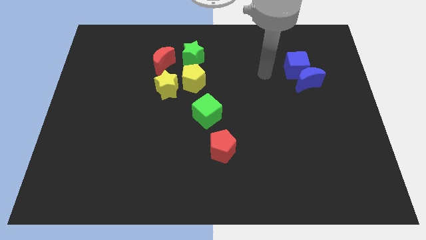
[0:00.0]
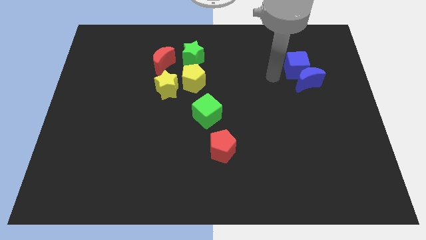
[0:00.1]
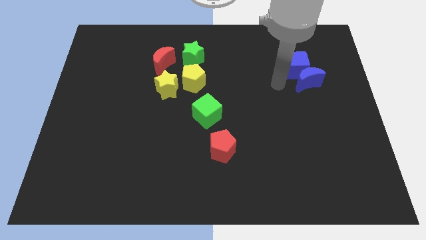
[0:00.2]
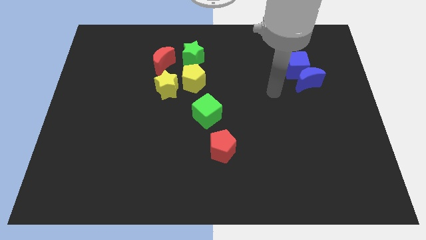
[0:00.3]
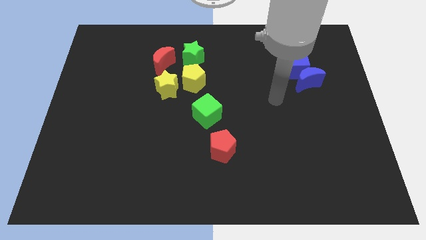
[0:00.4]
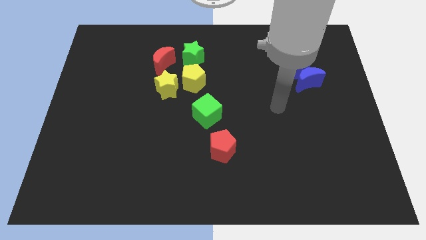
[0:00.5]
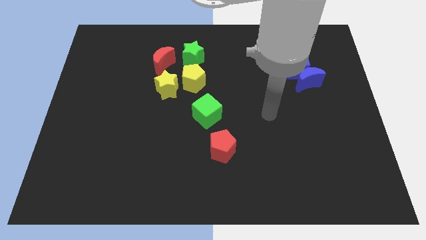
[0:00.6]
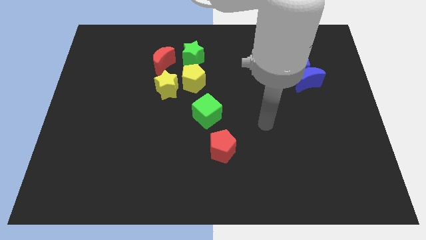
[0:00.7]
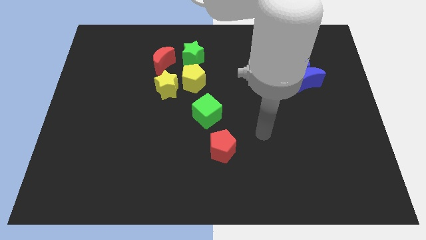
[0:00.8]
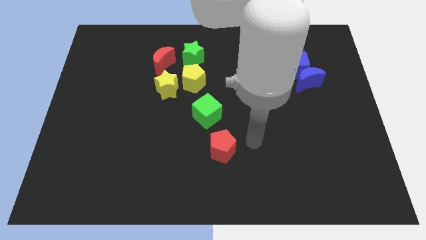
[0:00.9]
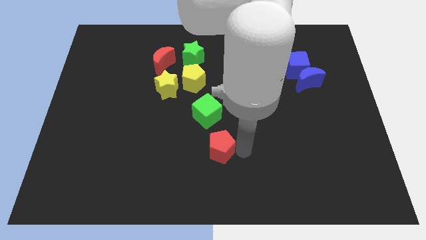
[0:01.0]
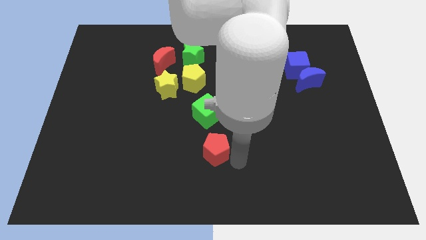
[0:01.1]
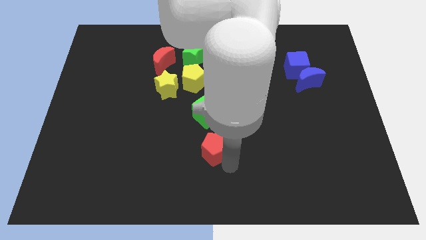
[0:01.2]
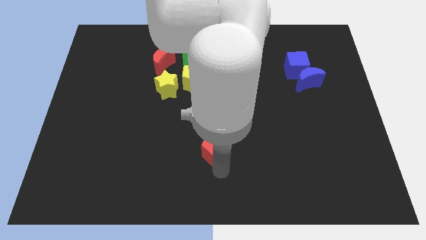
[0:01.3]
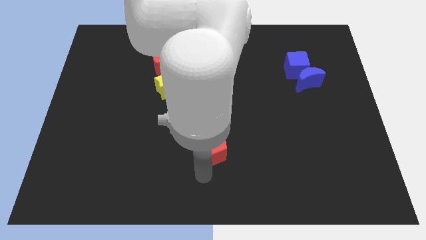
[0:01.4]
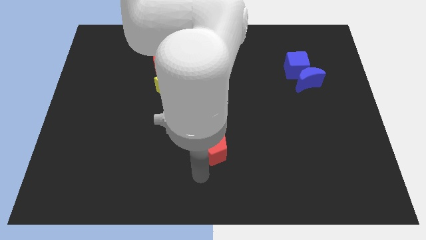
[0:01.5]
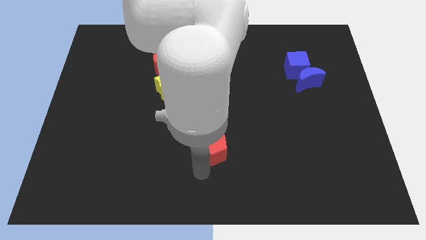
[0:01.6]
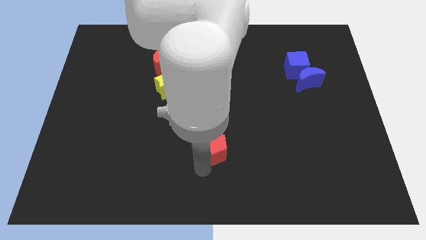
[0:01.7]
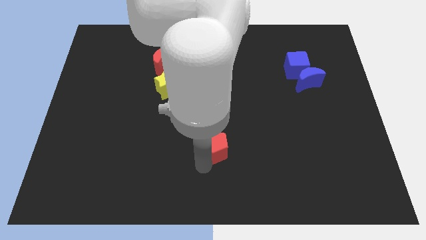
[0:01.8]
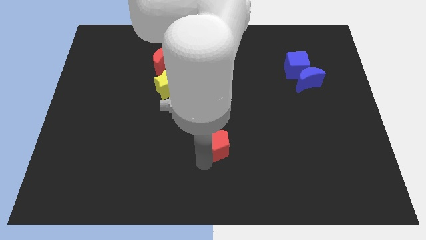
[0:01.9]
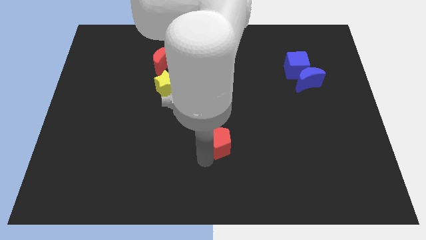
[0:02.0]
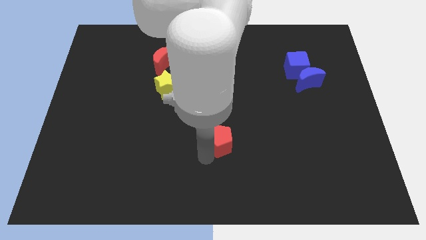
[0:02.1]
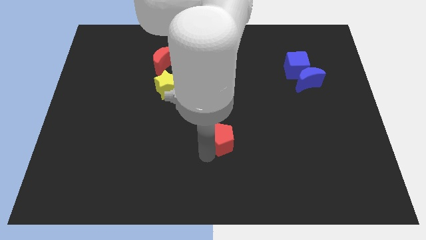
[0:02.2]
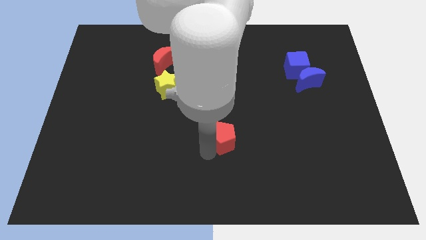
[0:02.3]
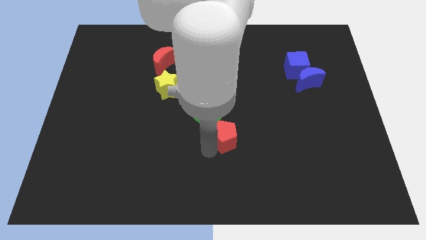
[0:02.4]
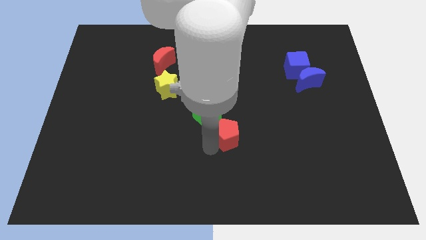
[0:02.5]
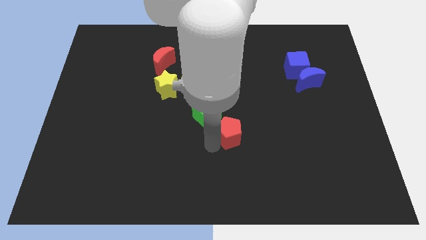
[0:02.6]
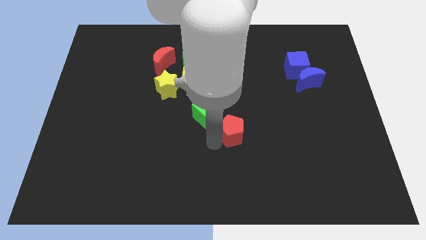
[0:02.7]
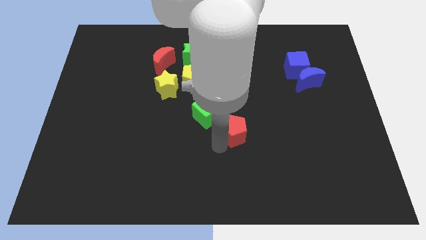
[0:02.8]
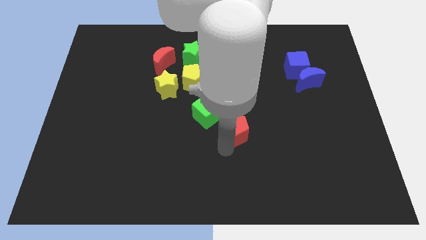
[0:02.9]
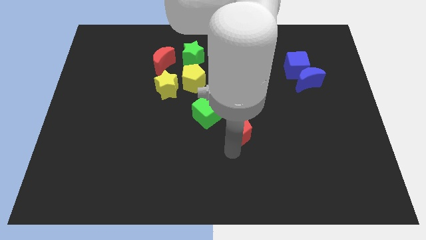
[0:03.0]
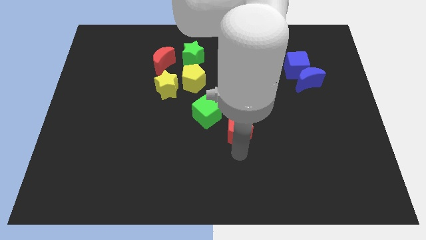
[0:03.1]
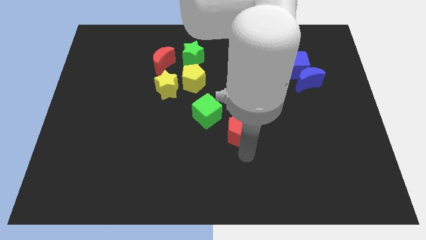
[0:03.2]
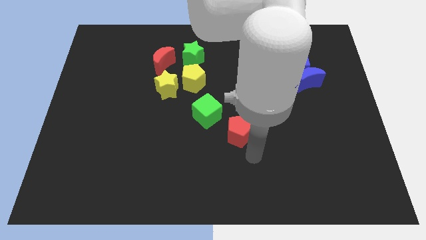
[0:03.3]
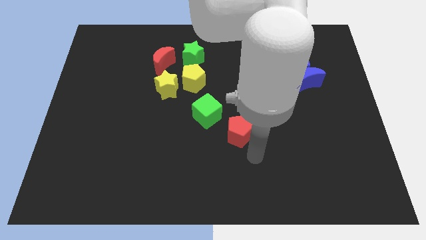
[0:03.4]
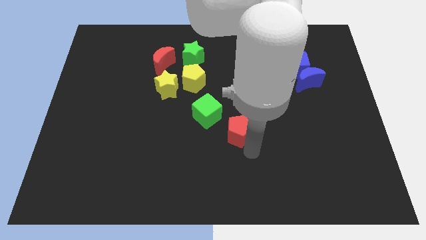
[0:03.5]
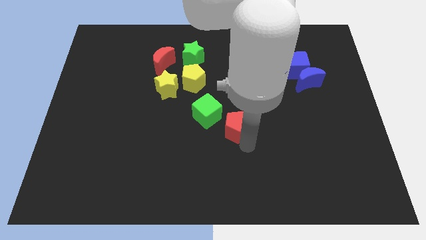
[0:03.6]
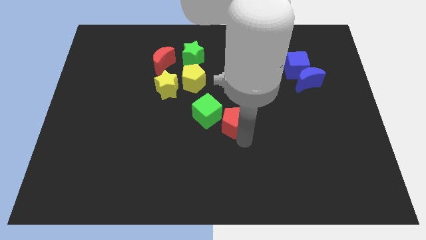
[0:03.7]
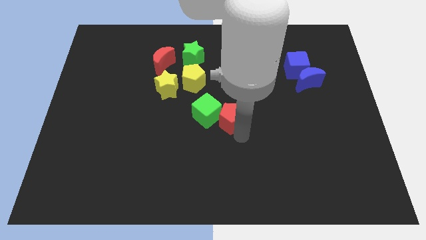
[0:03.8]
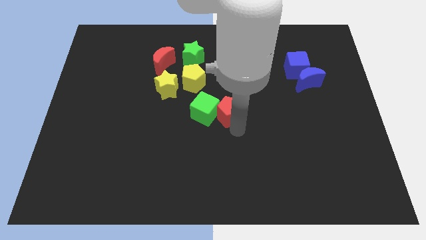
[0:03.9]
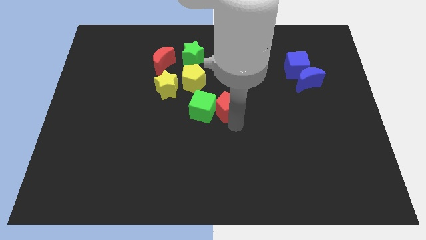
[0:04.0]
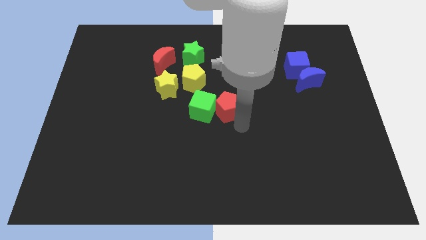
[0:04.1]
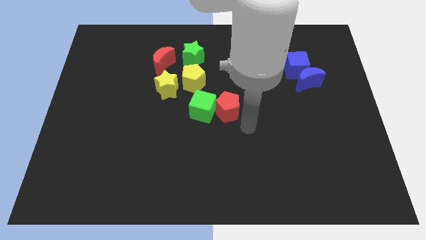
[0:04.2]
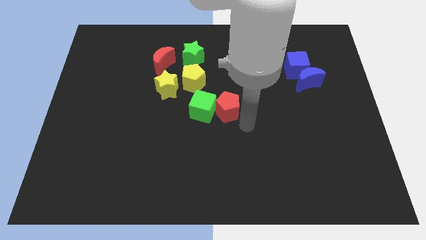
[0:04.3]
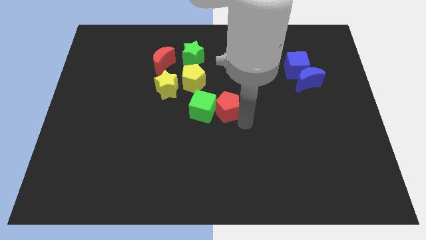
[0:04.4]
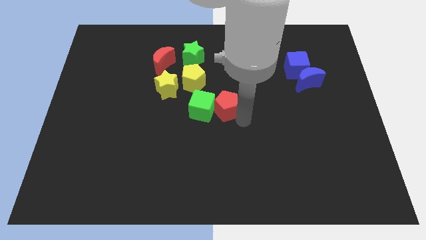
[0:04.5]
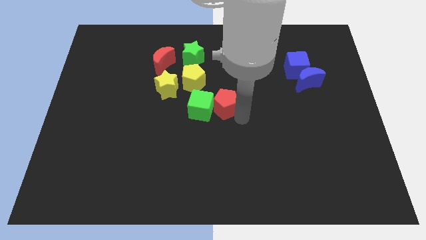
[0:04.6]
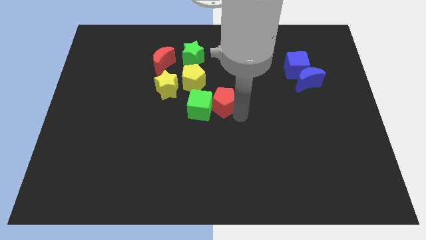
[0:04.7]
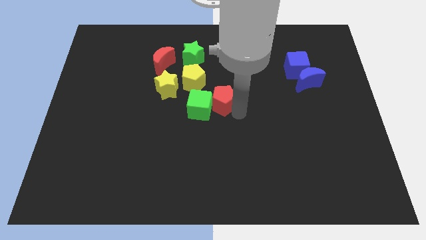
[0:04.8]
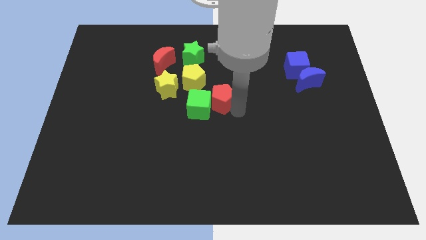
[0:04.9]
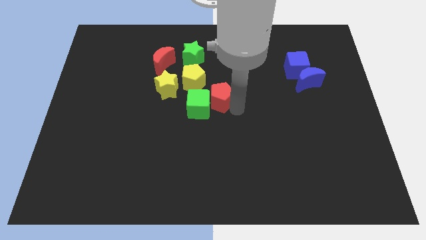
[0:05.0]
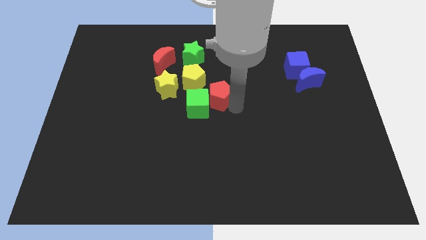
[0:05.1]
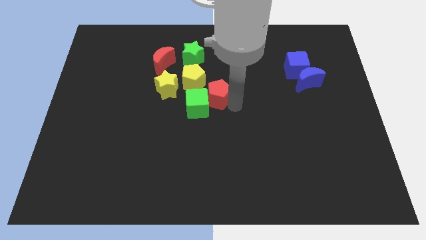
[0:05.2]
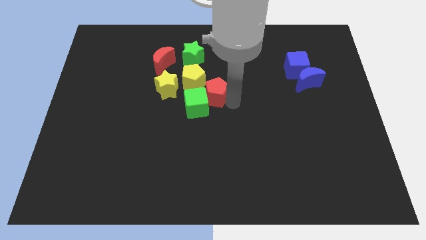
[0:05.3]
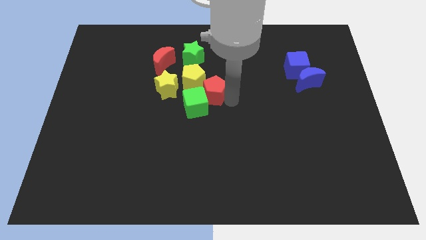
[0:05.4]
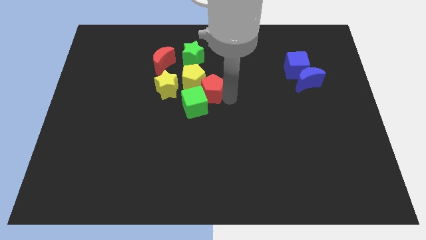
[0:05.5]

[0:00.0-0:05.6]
slide the red pentagon towards the yellow pentagon

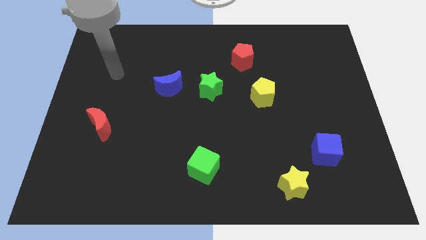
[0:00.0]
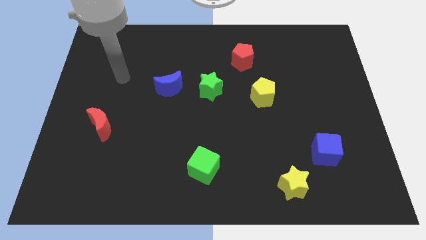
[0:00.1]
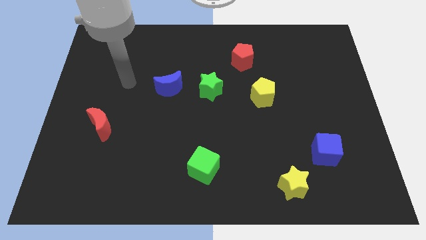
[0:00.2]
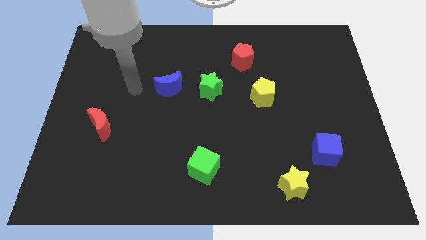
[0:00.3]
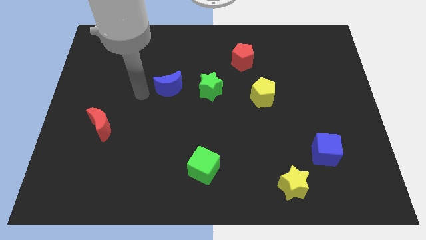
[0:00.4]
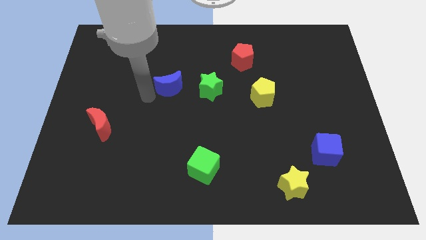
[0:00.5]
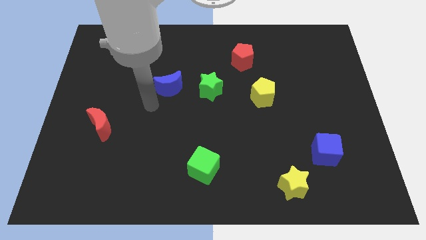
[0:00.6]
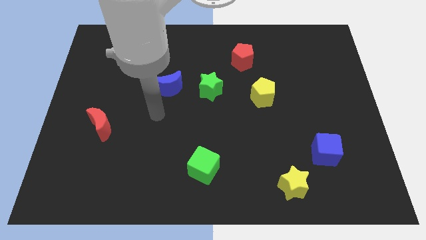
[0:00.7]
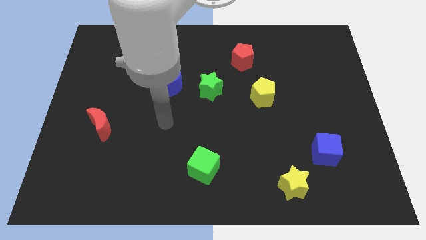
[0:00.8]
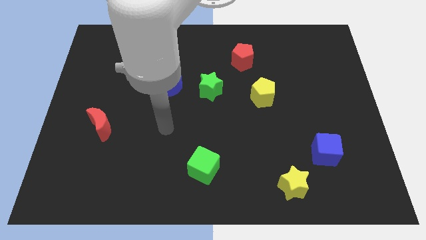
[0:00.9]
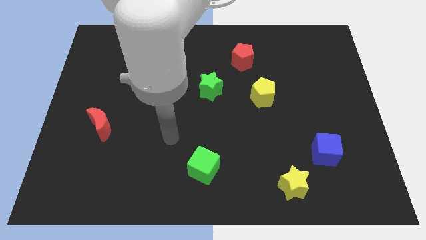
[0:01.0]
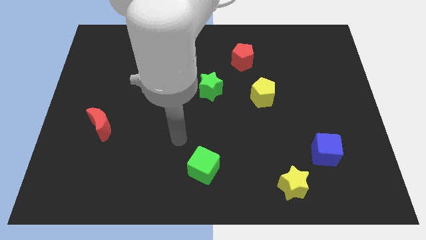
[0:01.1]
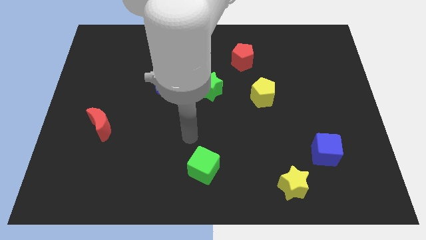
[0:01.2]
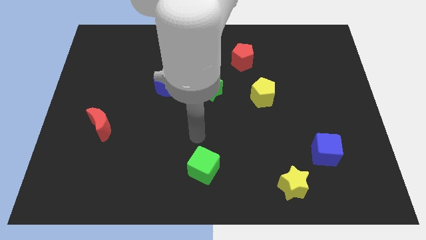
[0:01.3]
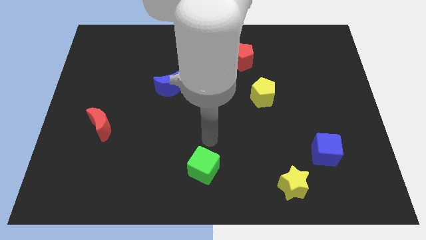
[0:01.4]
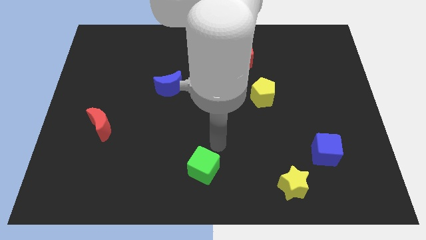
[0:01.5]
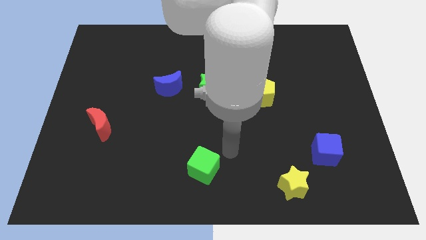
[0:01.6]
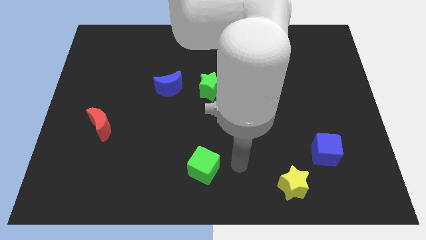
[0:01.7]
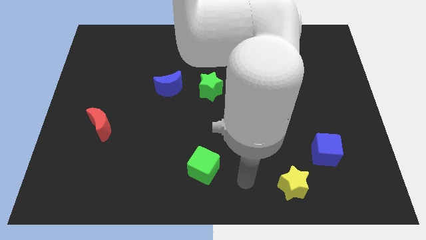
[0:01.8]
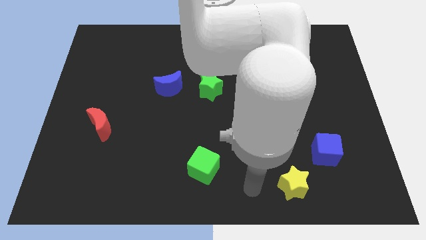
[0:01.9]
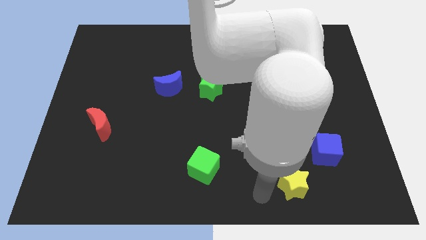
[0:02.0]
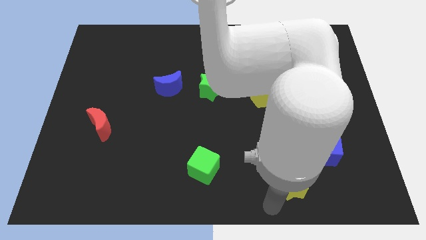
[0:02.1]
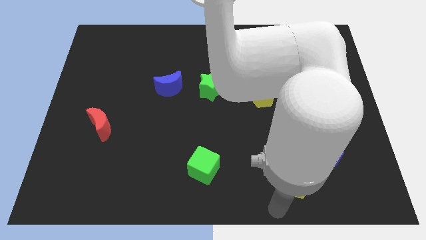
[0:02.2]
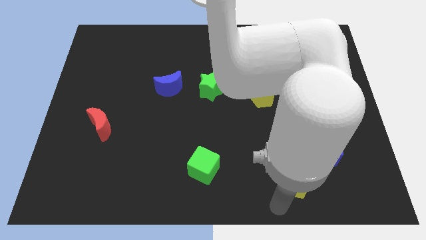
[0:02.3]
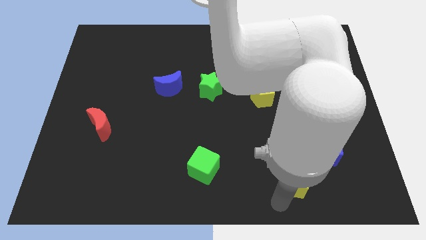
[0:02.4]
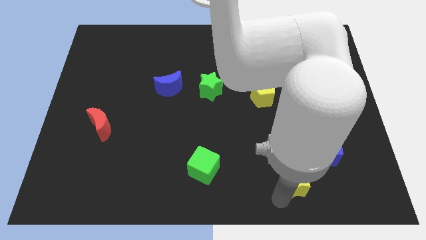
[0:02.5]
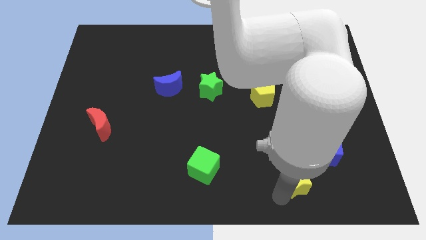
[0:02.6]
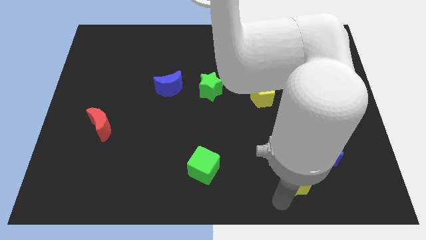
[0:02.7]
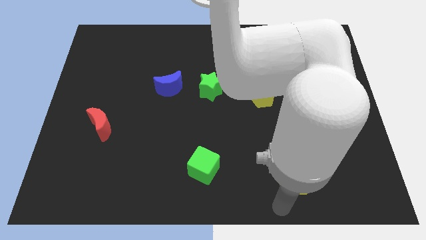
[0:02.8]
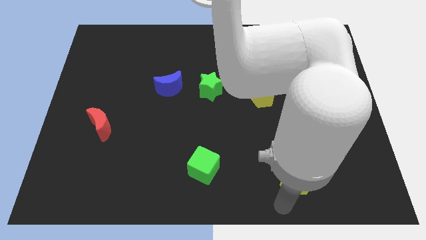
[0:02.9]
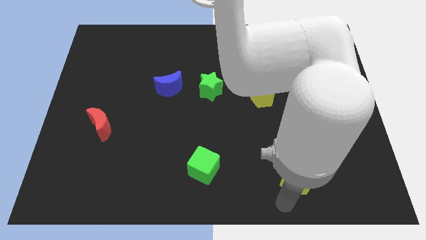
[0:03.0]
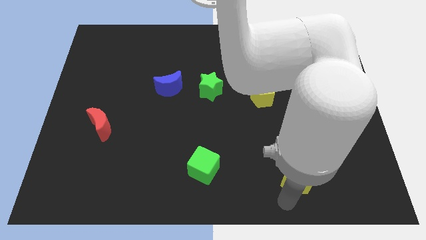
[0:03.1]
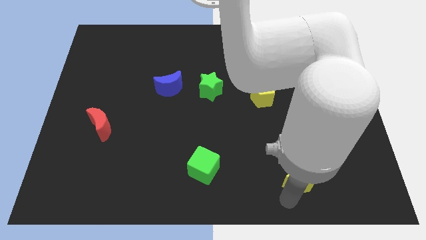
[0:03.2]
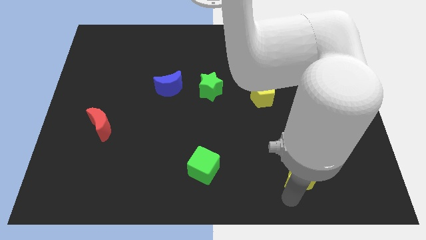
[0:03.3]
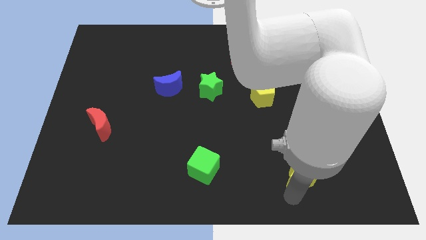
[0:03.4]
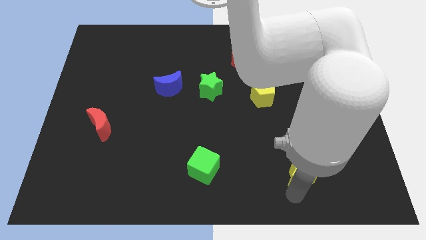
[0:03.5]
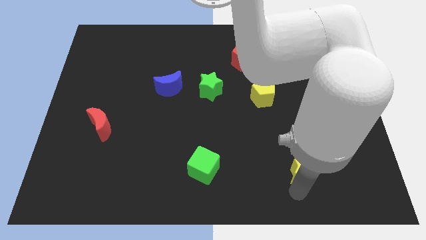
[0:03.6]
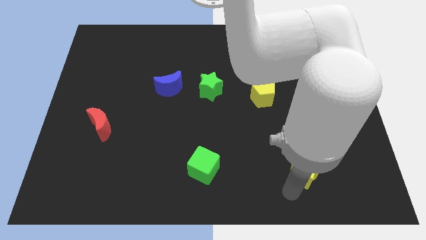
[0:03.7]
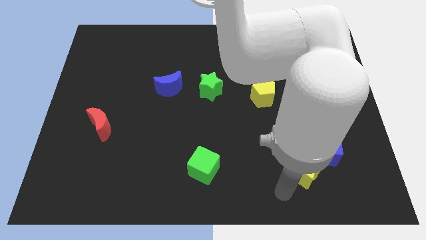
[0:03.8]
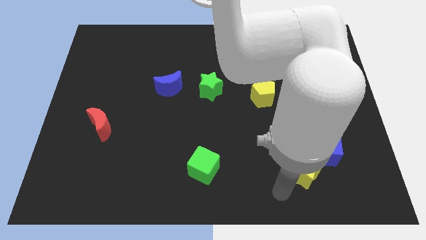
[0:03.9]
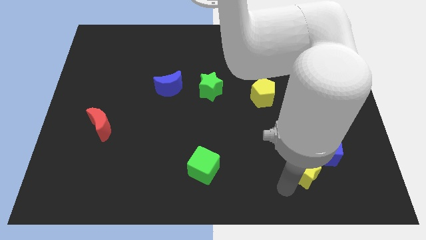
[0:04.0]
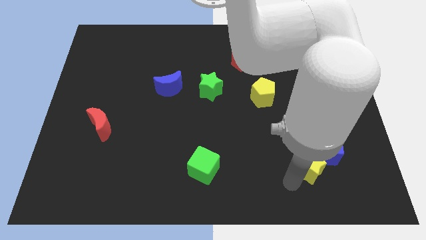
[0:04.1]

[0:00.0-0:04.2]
put the yellow star to the blue cube
